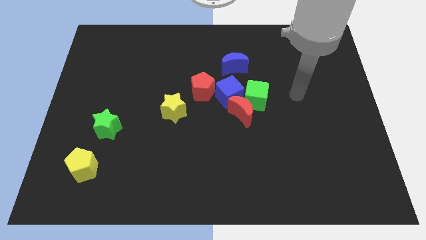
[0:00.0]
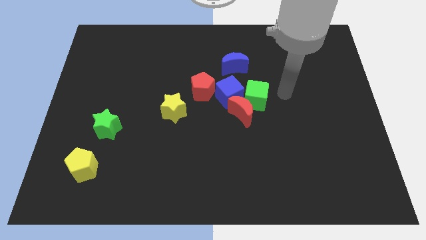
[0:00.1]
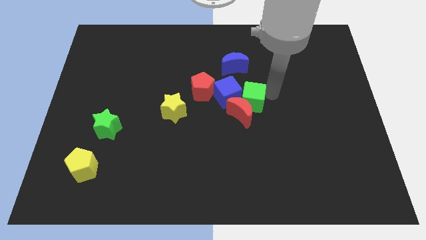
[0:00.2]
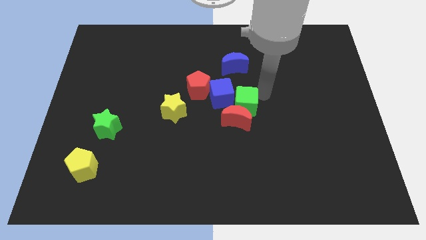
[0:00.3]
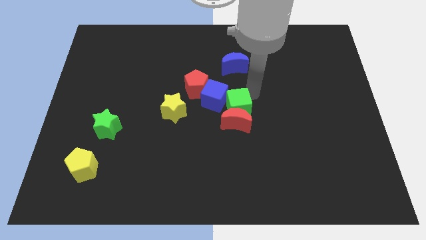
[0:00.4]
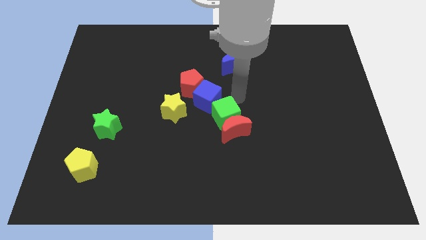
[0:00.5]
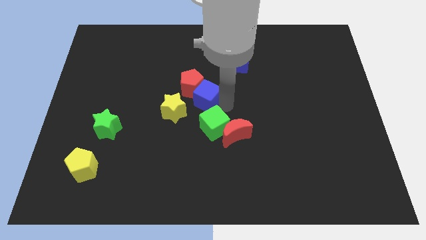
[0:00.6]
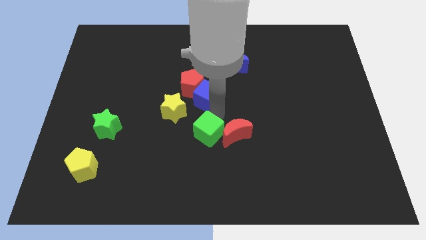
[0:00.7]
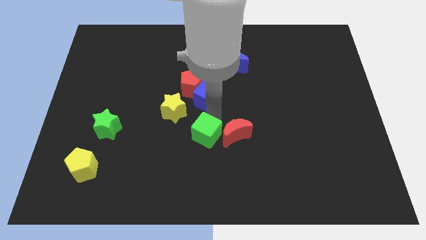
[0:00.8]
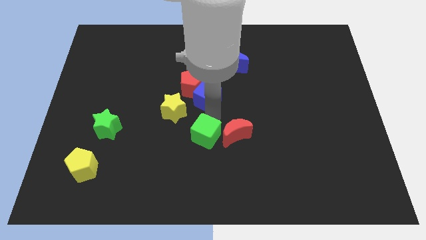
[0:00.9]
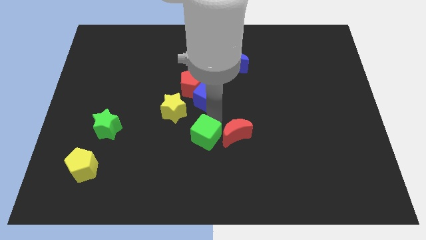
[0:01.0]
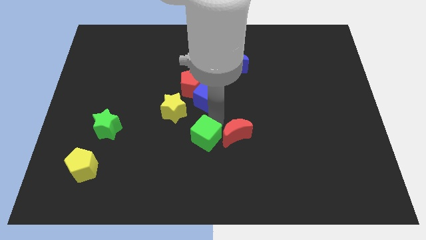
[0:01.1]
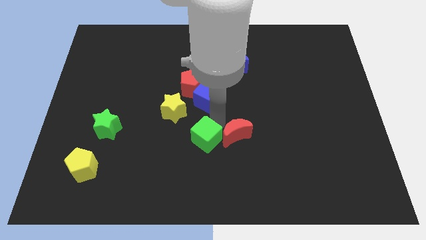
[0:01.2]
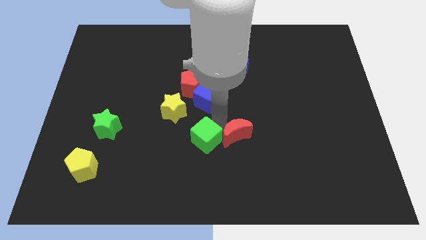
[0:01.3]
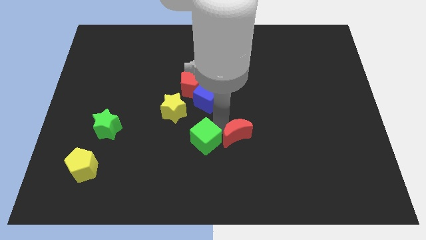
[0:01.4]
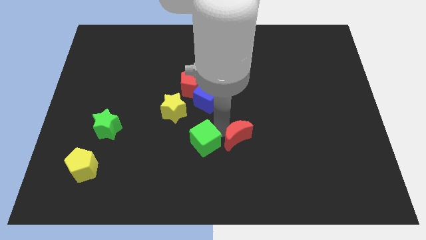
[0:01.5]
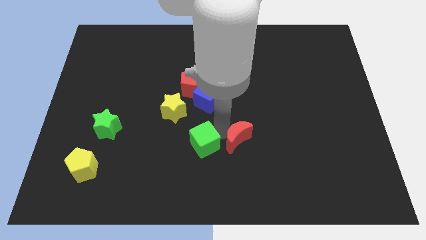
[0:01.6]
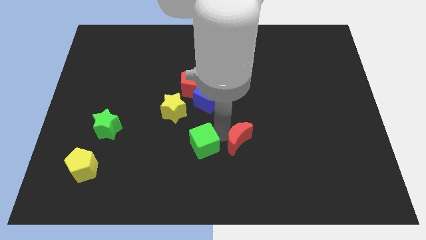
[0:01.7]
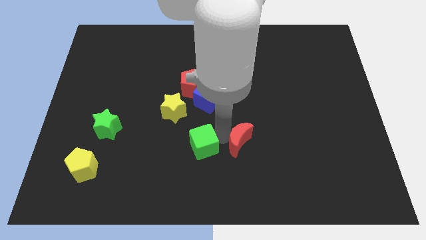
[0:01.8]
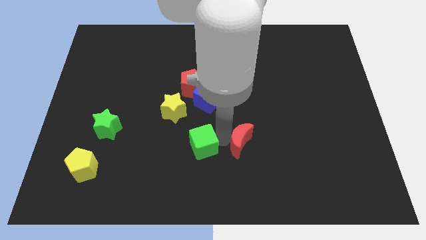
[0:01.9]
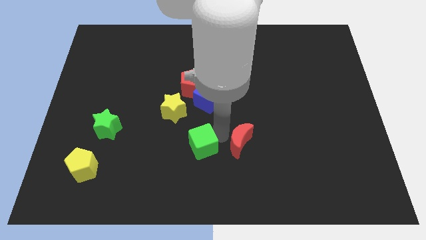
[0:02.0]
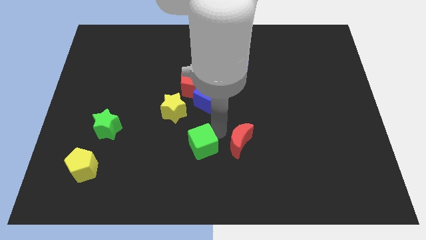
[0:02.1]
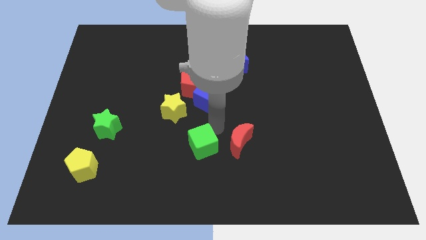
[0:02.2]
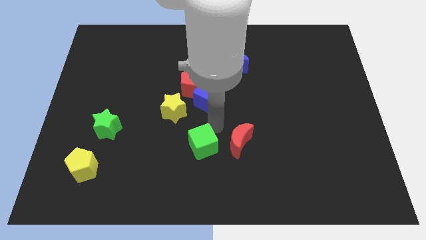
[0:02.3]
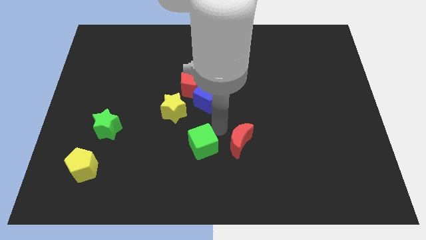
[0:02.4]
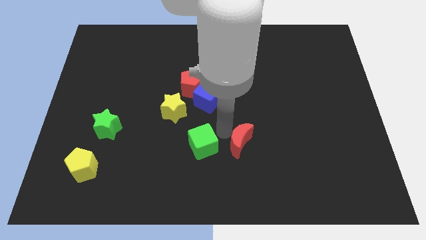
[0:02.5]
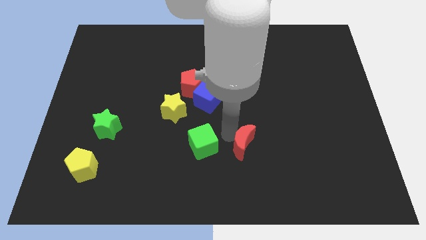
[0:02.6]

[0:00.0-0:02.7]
pull the red moon apart from the green cube and blue cube

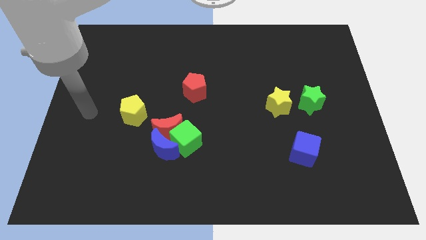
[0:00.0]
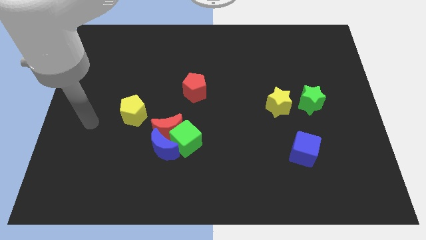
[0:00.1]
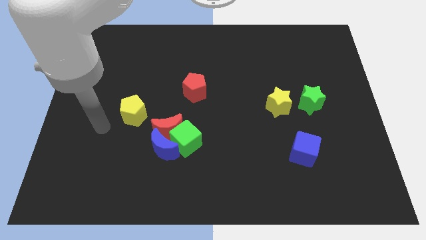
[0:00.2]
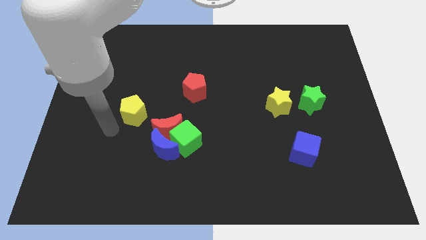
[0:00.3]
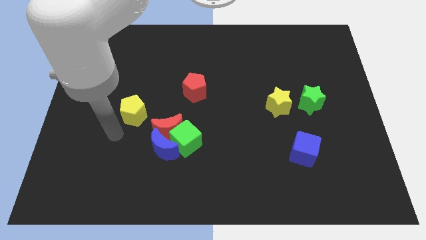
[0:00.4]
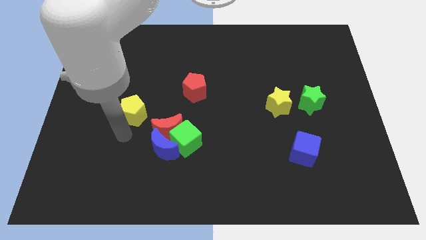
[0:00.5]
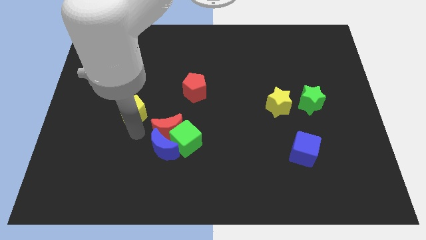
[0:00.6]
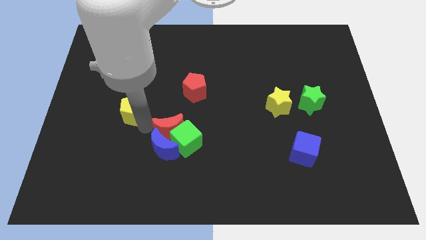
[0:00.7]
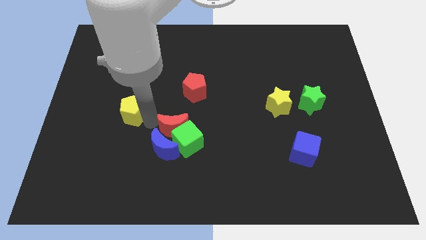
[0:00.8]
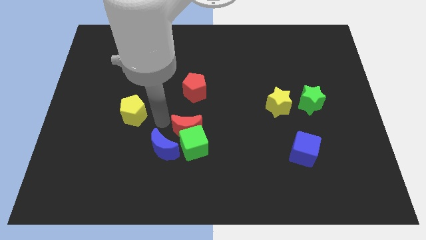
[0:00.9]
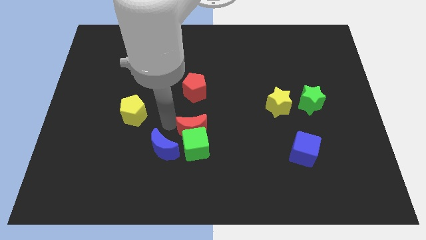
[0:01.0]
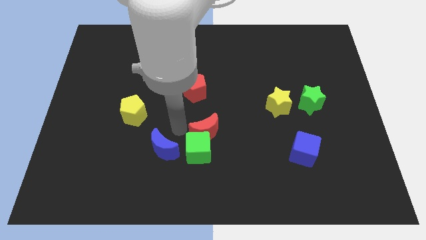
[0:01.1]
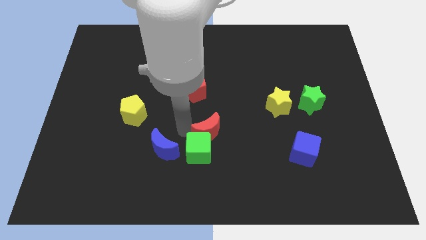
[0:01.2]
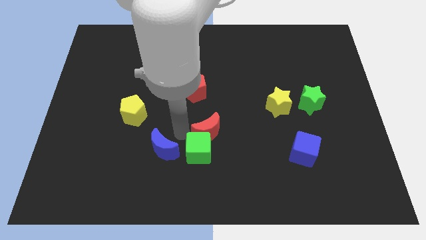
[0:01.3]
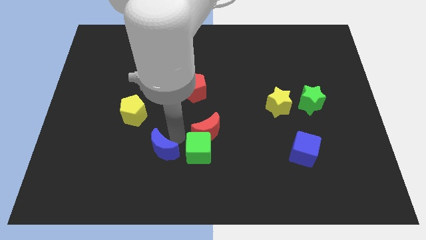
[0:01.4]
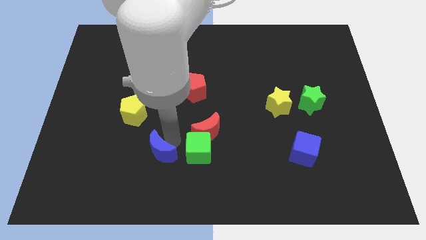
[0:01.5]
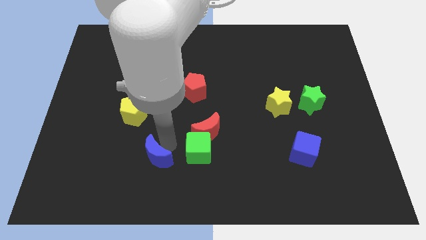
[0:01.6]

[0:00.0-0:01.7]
move the blue moon away from the red moon and green cube

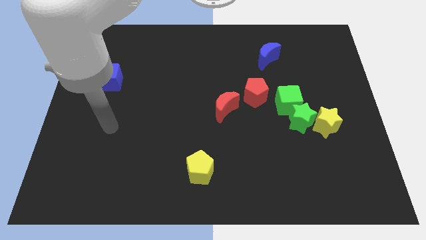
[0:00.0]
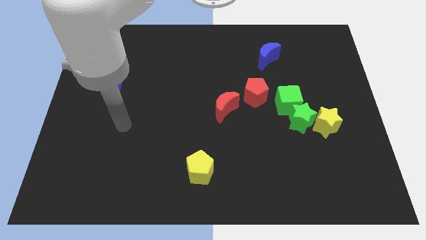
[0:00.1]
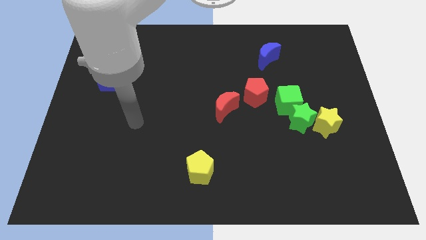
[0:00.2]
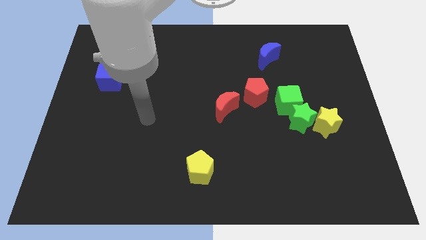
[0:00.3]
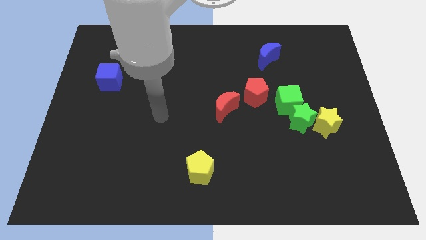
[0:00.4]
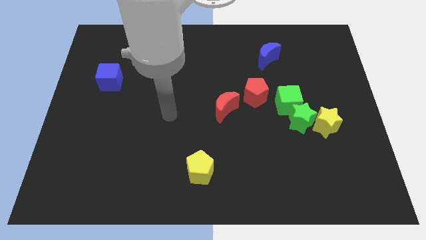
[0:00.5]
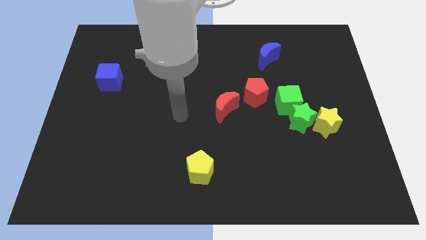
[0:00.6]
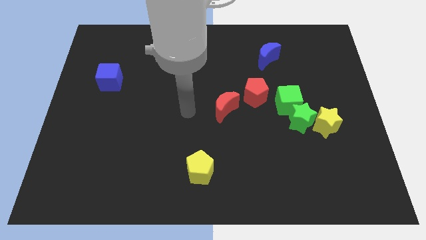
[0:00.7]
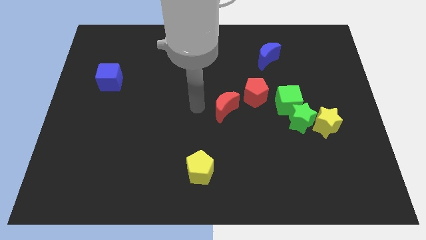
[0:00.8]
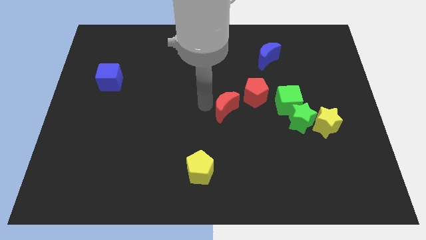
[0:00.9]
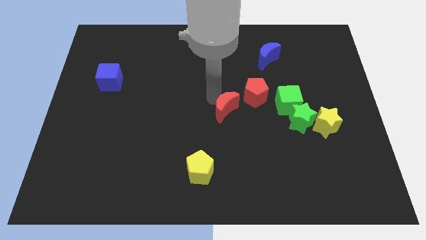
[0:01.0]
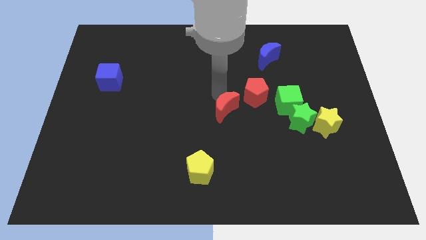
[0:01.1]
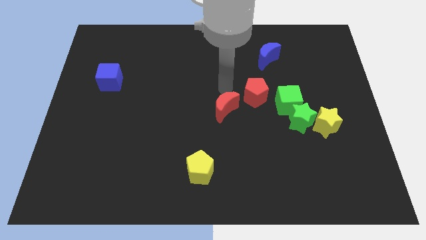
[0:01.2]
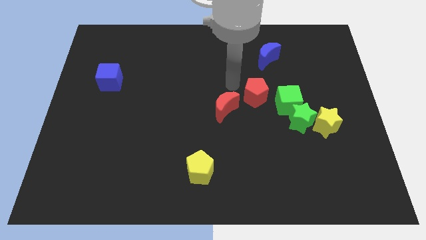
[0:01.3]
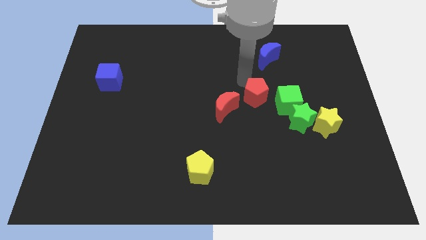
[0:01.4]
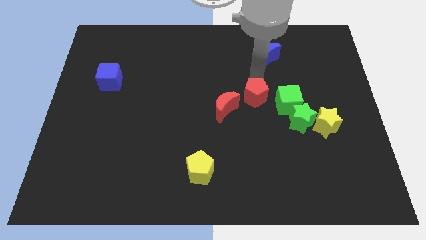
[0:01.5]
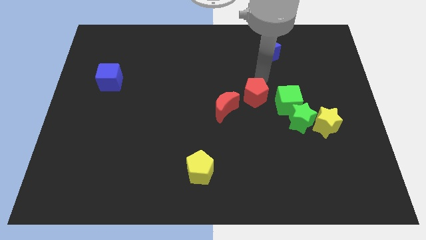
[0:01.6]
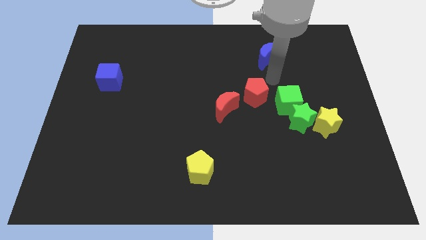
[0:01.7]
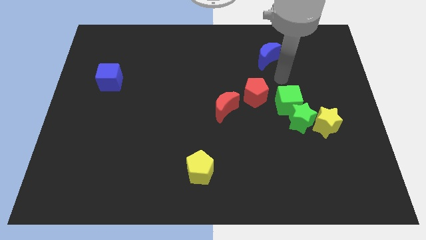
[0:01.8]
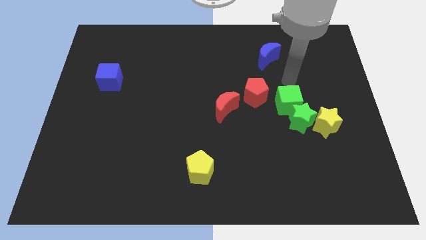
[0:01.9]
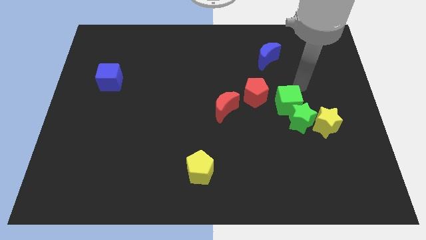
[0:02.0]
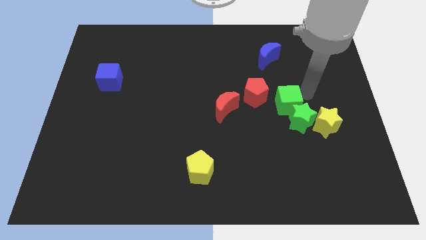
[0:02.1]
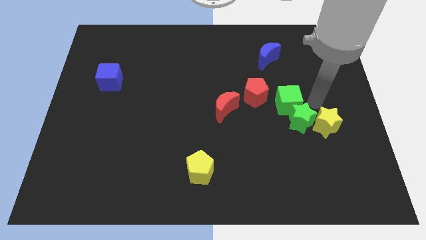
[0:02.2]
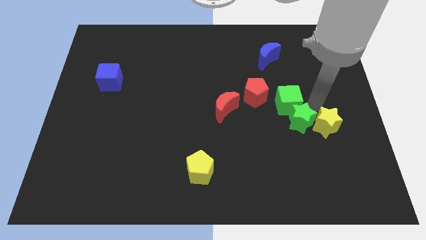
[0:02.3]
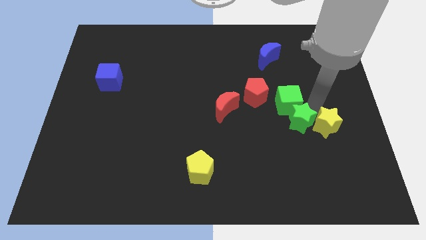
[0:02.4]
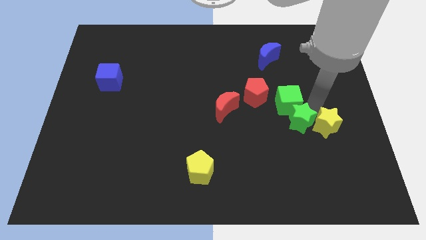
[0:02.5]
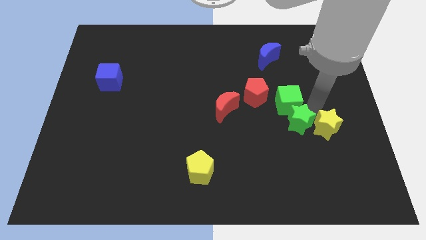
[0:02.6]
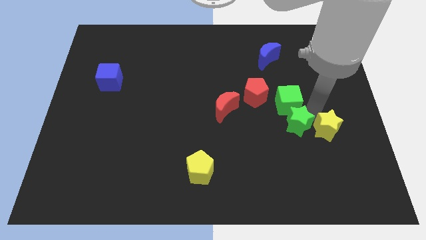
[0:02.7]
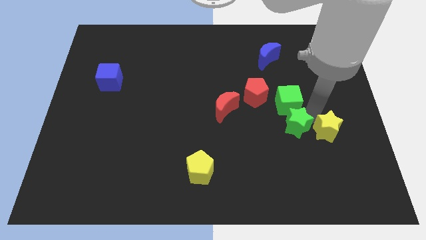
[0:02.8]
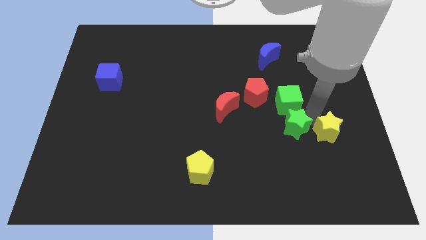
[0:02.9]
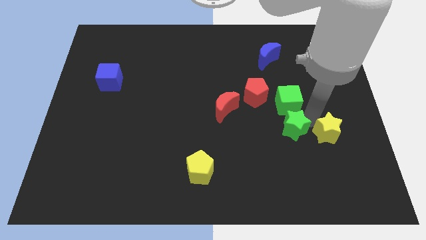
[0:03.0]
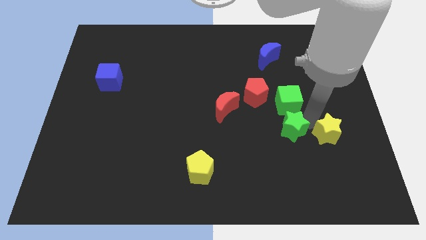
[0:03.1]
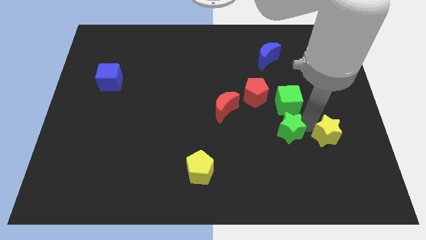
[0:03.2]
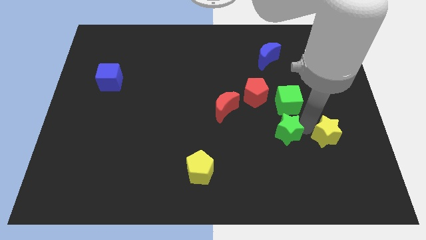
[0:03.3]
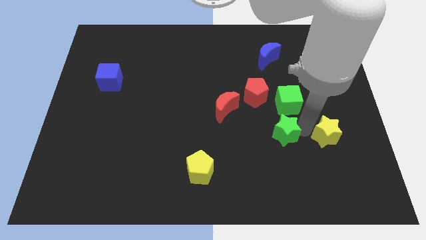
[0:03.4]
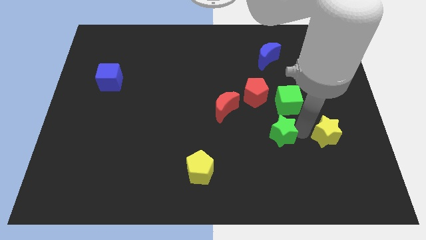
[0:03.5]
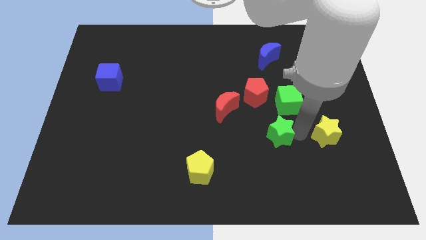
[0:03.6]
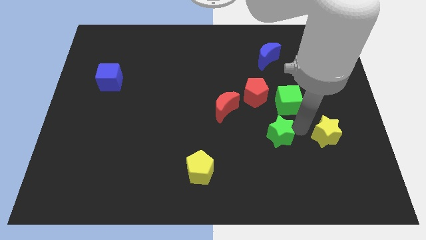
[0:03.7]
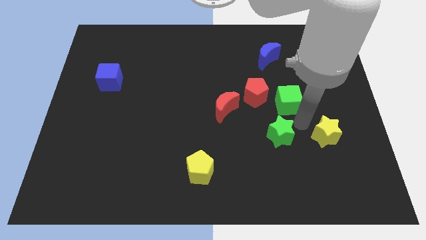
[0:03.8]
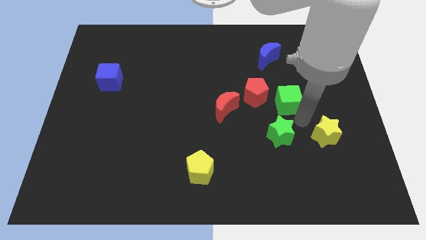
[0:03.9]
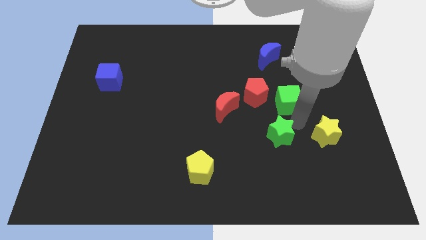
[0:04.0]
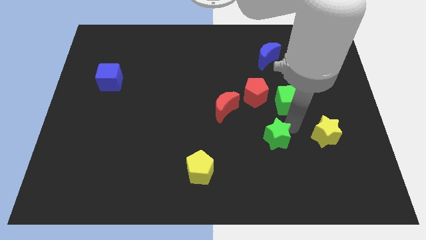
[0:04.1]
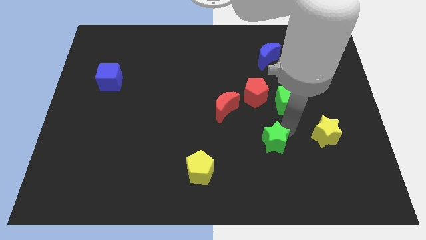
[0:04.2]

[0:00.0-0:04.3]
pull the green star apart from the green cube and yellow star

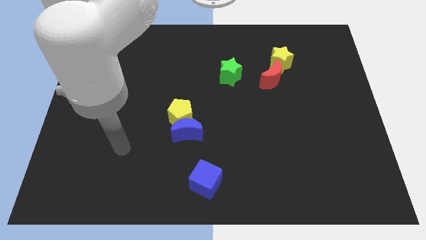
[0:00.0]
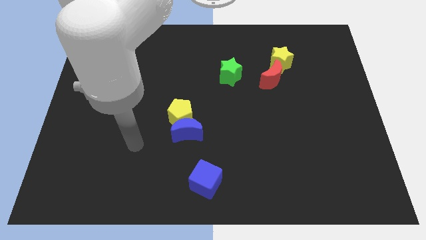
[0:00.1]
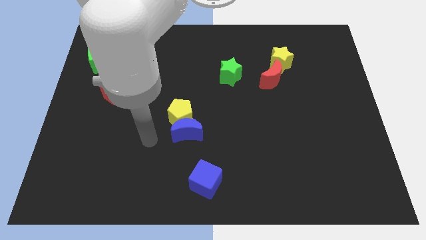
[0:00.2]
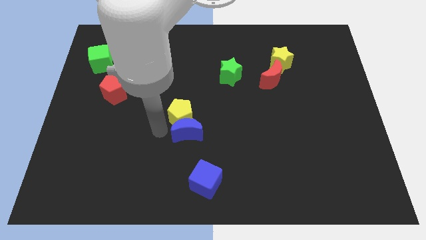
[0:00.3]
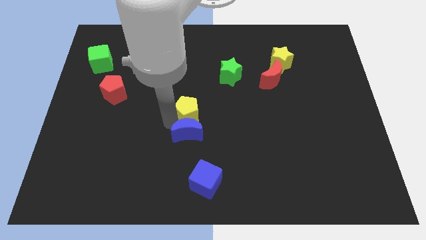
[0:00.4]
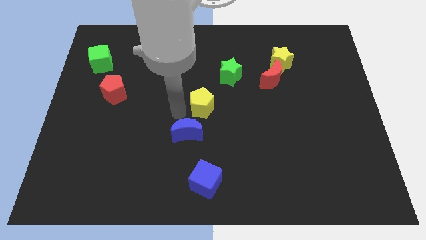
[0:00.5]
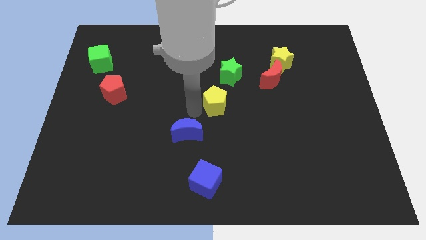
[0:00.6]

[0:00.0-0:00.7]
move the blue moon away from the yellow pentagon
